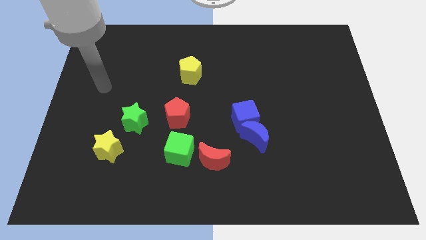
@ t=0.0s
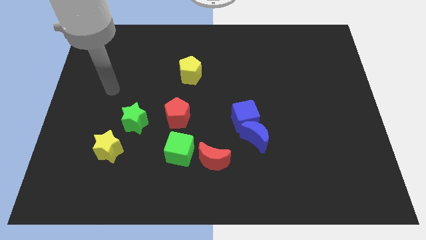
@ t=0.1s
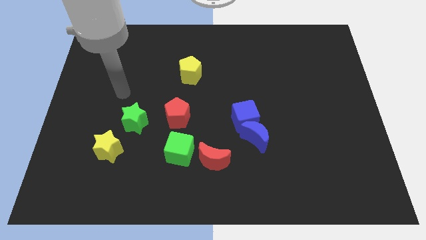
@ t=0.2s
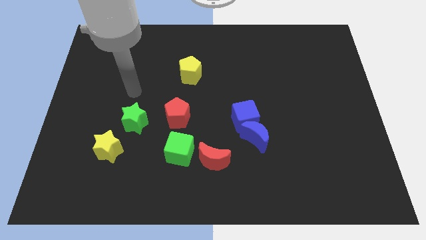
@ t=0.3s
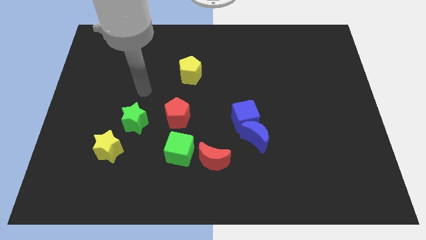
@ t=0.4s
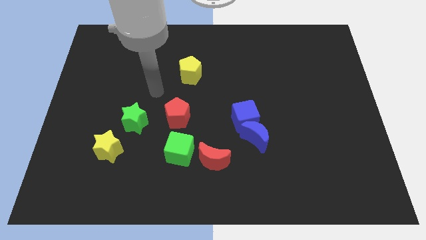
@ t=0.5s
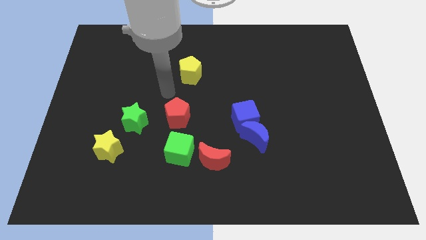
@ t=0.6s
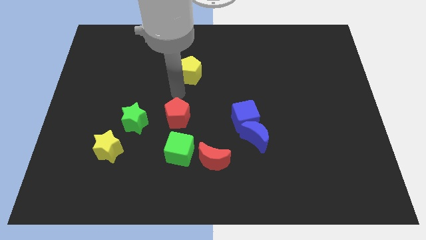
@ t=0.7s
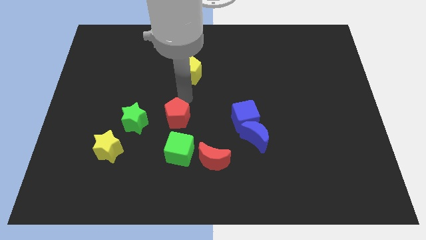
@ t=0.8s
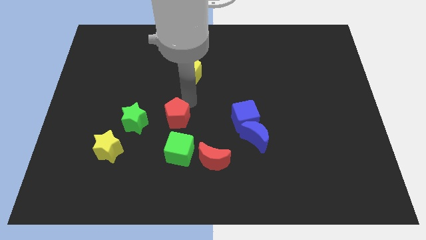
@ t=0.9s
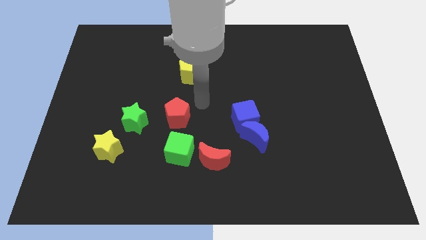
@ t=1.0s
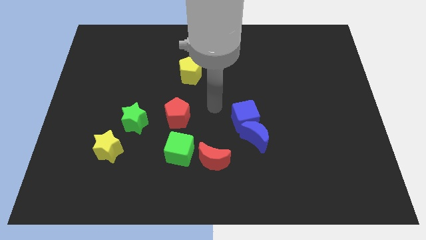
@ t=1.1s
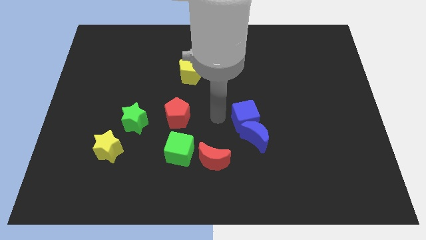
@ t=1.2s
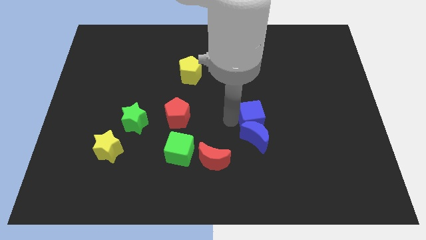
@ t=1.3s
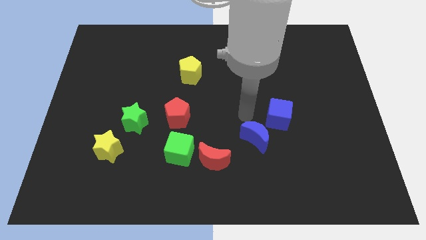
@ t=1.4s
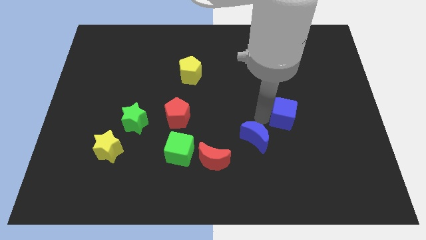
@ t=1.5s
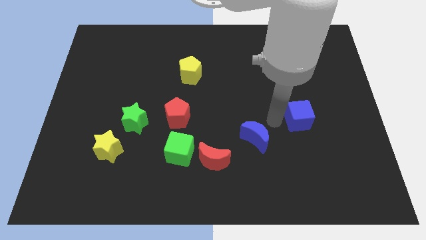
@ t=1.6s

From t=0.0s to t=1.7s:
pull the blue moon apart from the blue cube

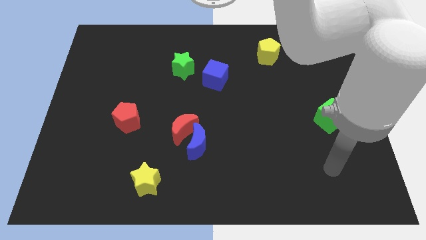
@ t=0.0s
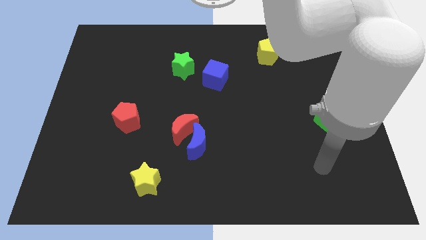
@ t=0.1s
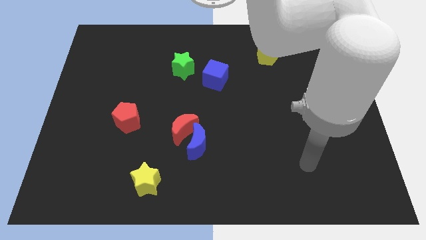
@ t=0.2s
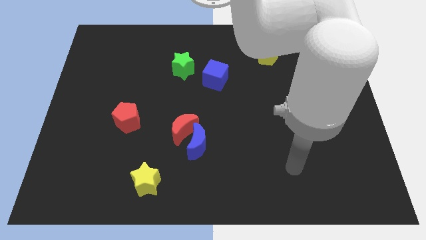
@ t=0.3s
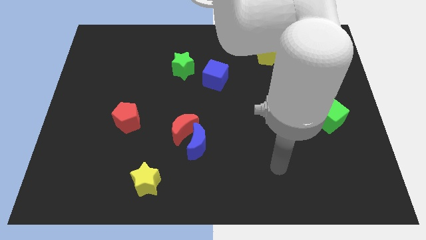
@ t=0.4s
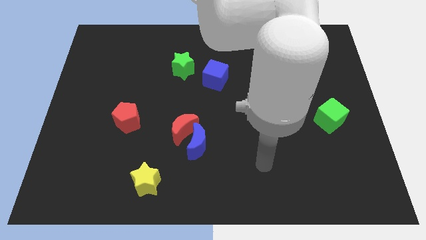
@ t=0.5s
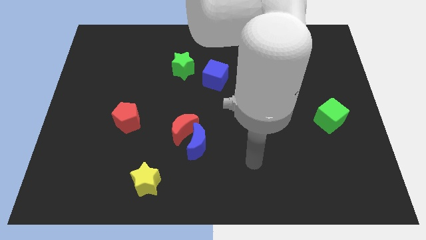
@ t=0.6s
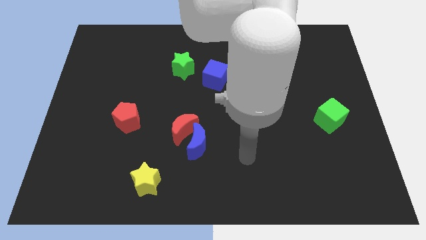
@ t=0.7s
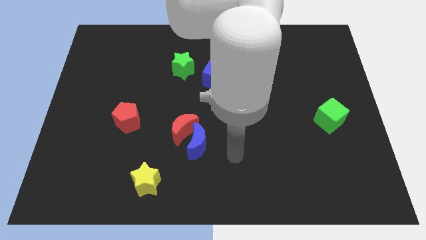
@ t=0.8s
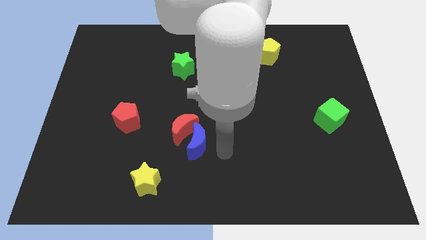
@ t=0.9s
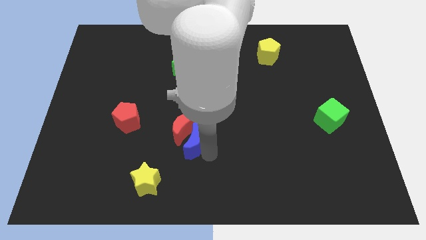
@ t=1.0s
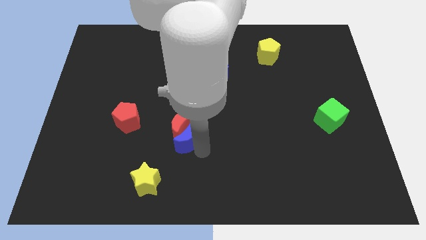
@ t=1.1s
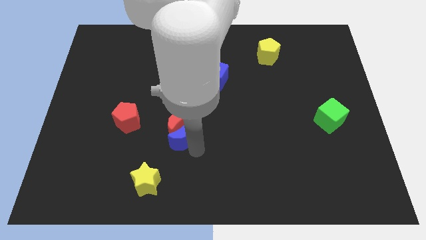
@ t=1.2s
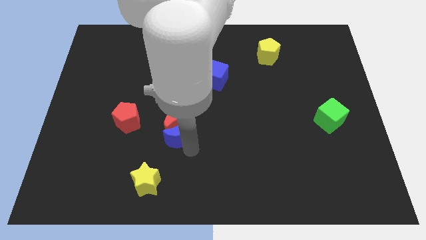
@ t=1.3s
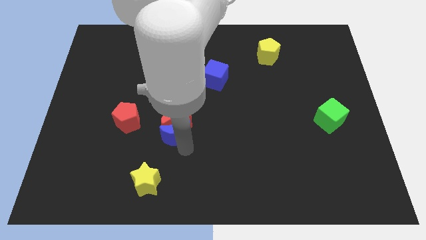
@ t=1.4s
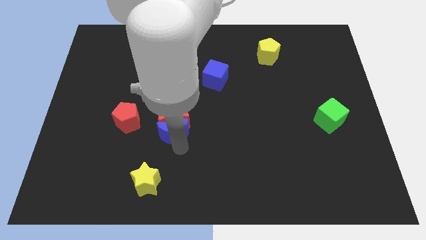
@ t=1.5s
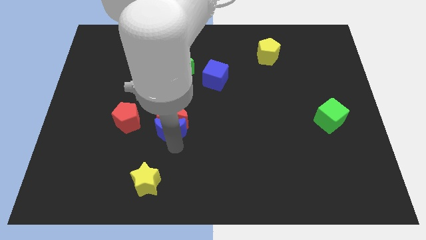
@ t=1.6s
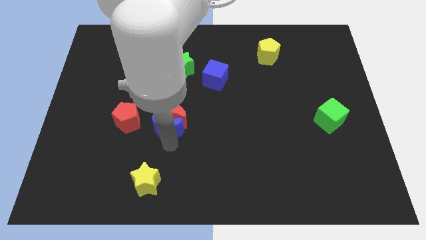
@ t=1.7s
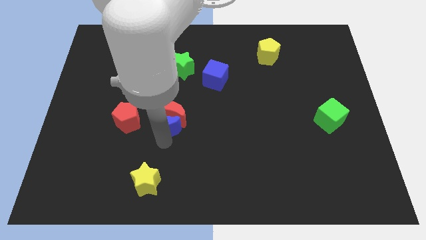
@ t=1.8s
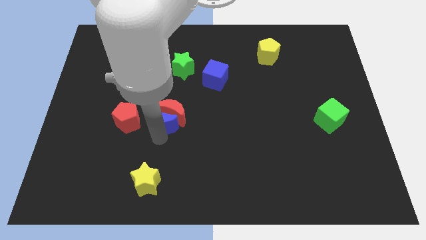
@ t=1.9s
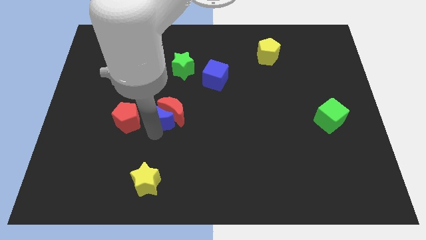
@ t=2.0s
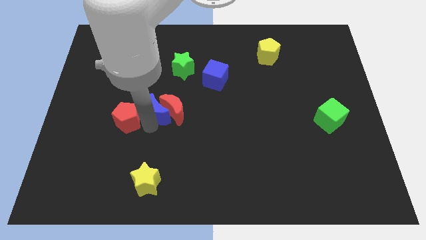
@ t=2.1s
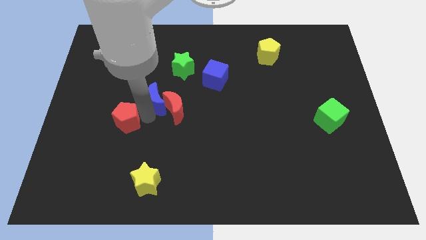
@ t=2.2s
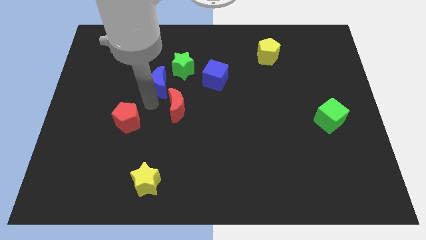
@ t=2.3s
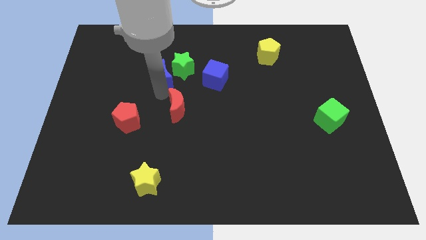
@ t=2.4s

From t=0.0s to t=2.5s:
separate the red moon from the blue moon

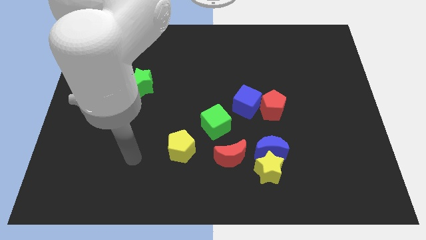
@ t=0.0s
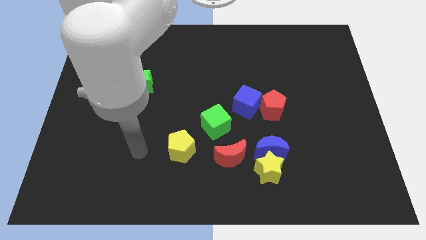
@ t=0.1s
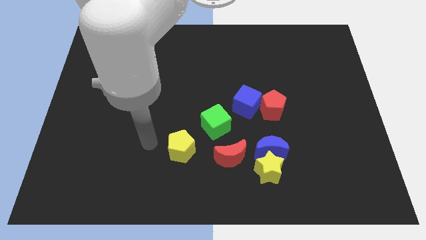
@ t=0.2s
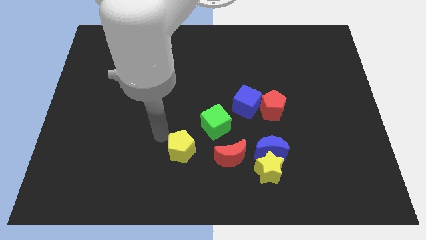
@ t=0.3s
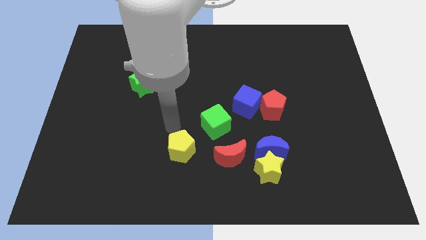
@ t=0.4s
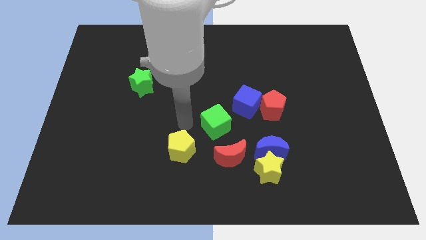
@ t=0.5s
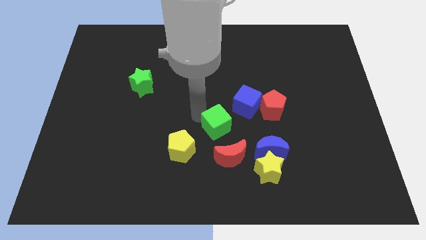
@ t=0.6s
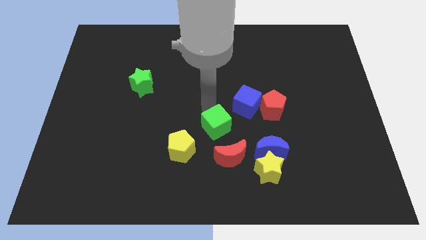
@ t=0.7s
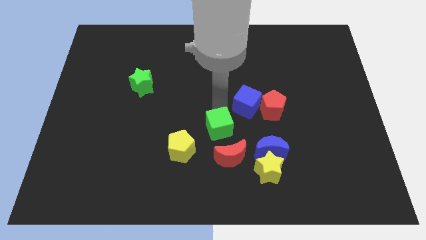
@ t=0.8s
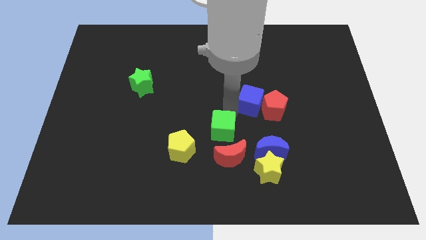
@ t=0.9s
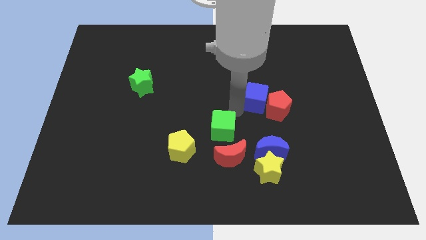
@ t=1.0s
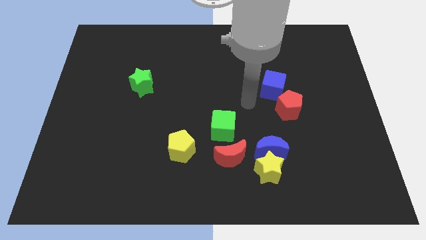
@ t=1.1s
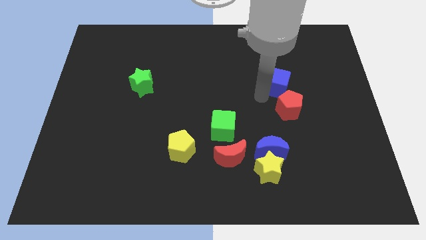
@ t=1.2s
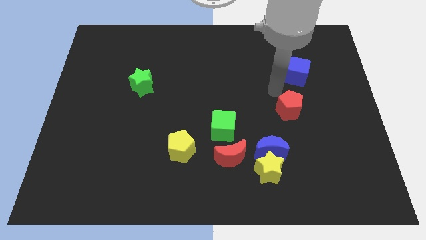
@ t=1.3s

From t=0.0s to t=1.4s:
pull the red pentagon apart from the blue cube

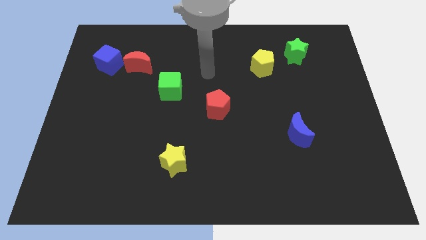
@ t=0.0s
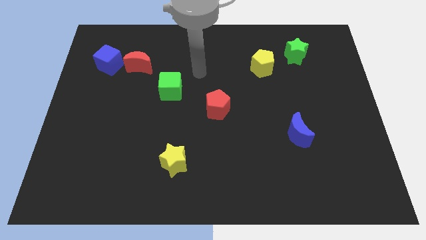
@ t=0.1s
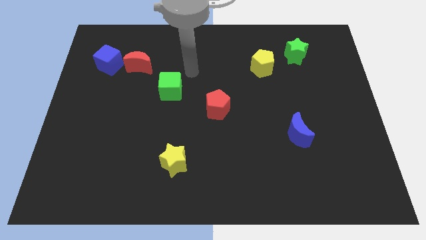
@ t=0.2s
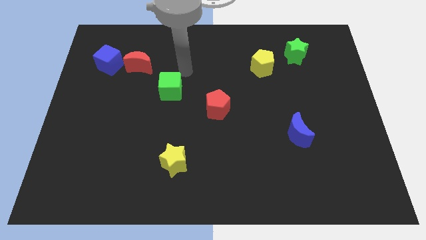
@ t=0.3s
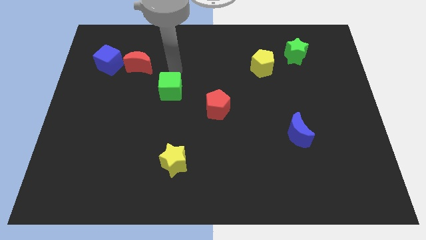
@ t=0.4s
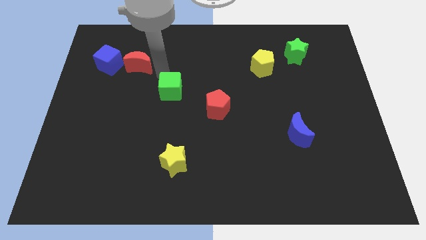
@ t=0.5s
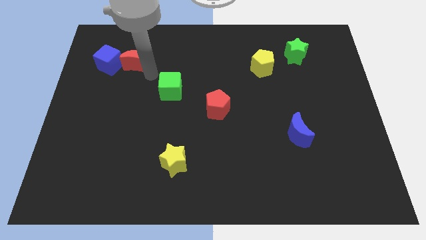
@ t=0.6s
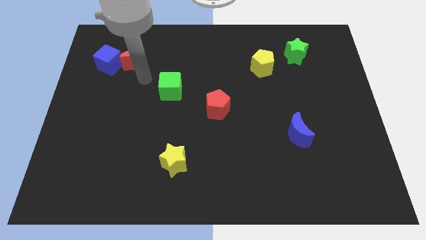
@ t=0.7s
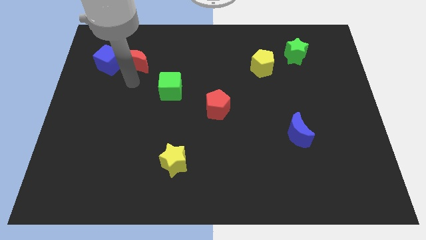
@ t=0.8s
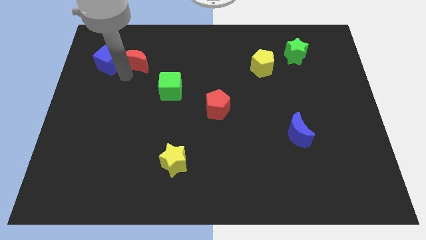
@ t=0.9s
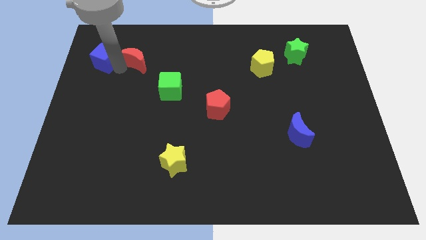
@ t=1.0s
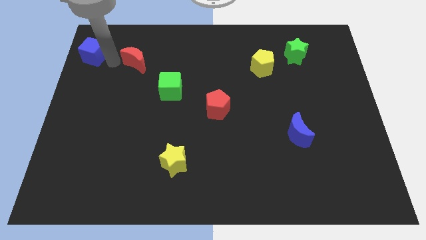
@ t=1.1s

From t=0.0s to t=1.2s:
move the red moon away from the blue cube

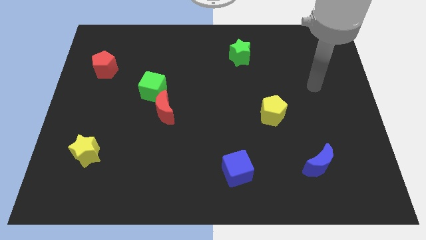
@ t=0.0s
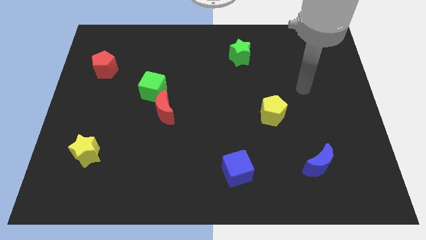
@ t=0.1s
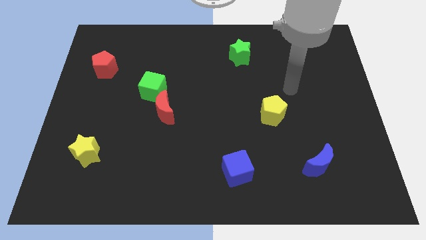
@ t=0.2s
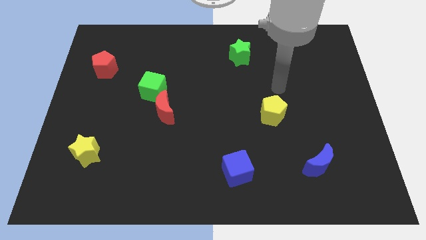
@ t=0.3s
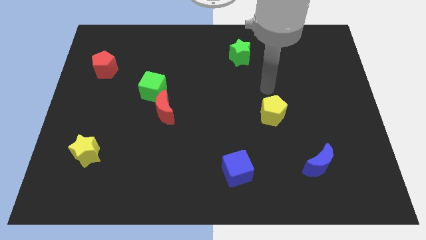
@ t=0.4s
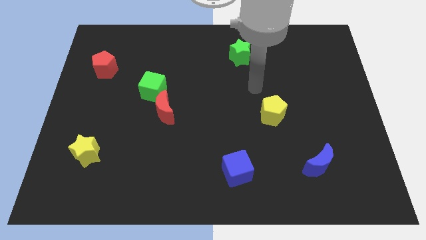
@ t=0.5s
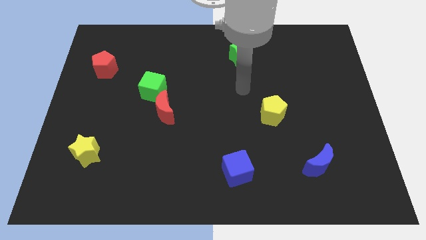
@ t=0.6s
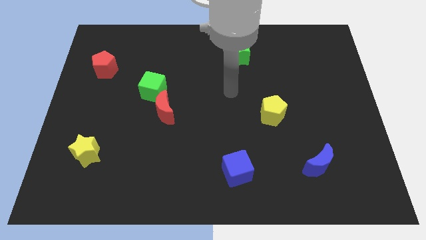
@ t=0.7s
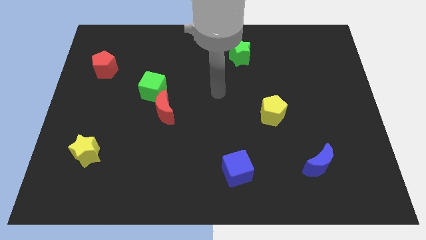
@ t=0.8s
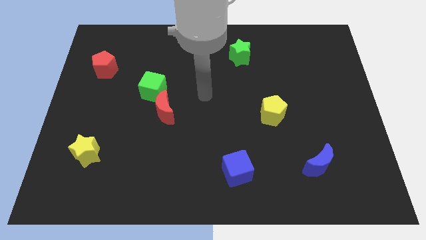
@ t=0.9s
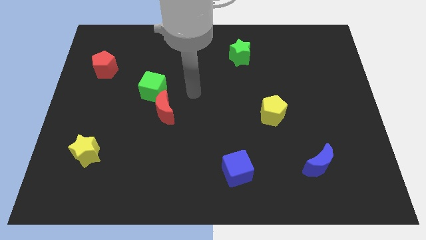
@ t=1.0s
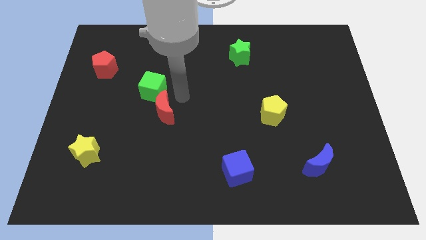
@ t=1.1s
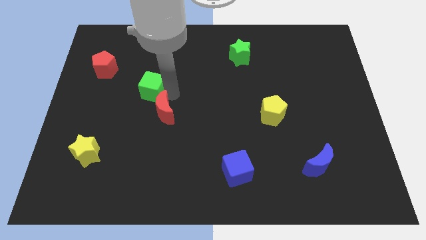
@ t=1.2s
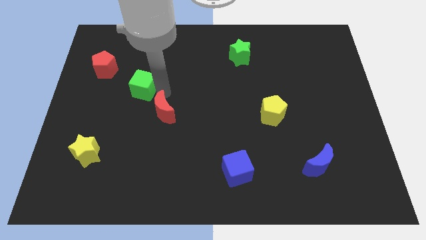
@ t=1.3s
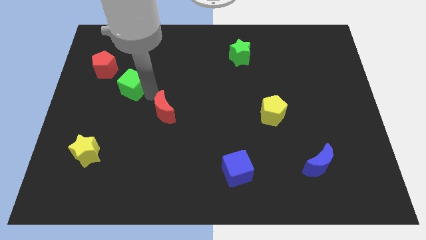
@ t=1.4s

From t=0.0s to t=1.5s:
separate the red moon from the green cube

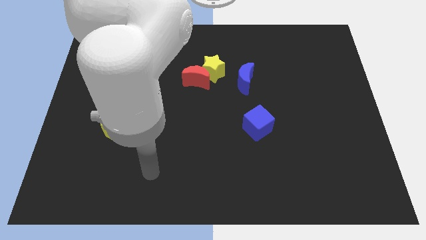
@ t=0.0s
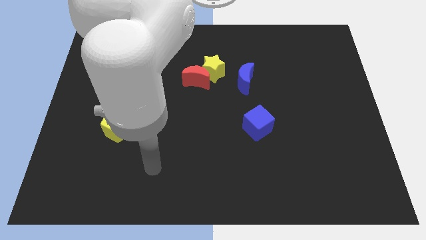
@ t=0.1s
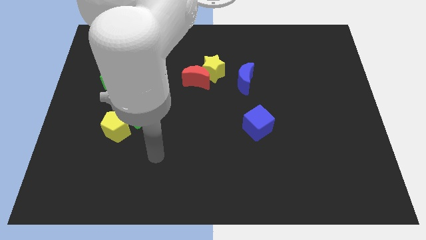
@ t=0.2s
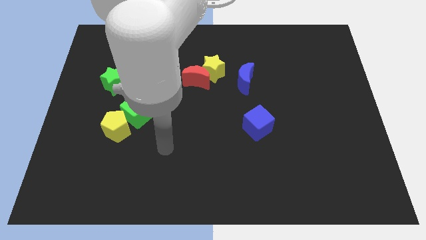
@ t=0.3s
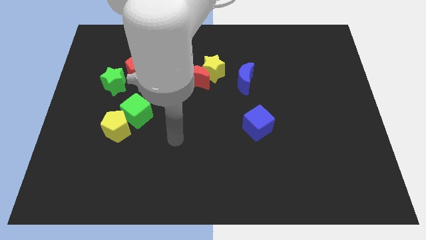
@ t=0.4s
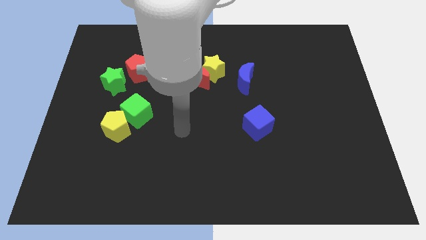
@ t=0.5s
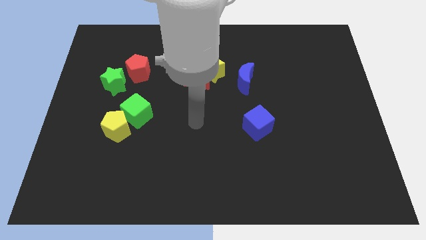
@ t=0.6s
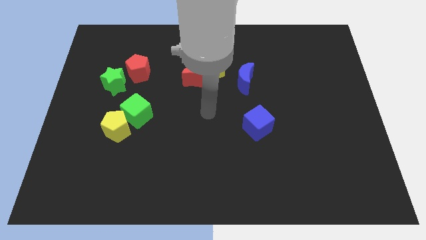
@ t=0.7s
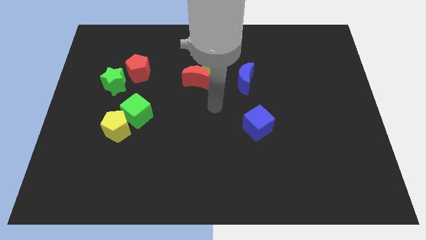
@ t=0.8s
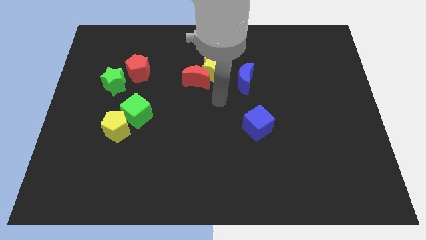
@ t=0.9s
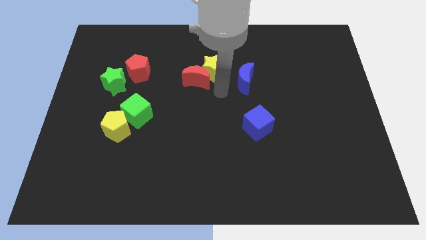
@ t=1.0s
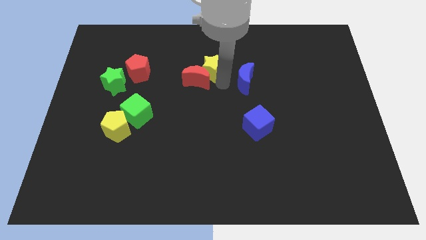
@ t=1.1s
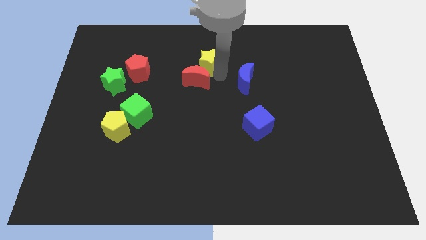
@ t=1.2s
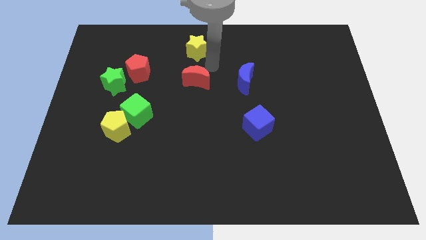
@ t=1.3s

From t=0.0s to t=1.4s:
pull the red moon apart from the yellow star
